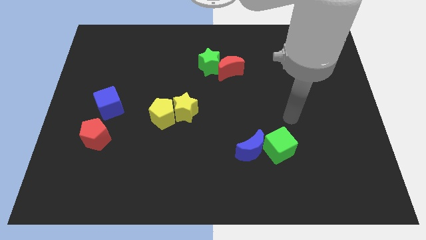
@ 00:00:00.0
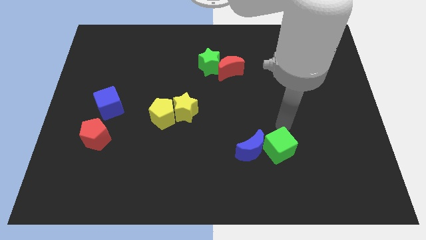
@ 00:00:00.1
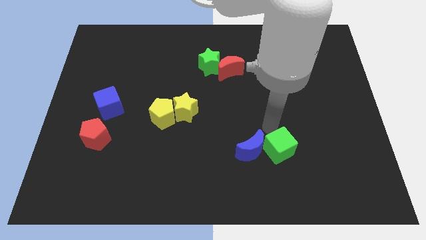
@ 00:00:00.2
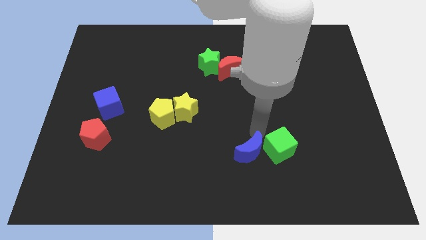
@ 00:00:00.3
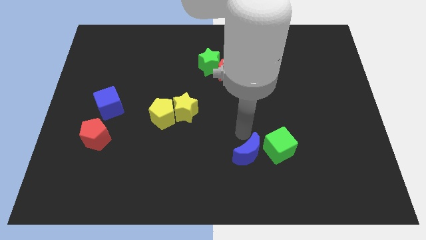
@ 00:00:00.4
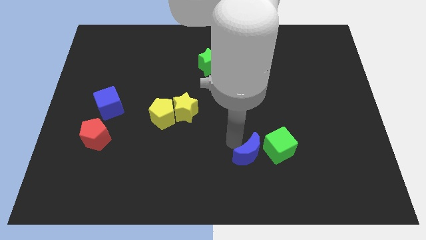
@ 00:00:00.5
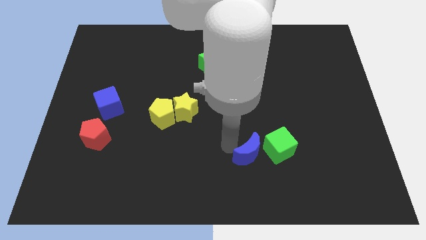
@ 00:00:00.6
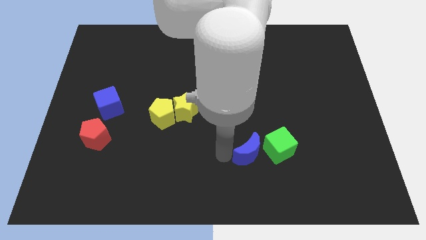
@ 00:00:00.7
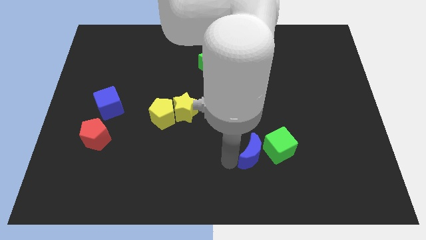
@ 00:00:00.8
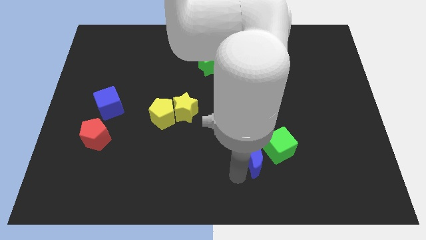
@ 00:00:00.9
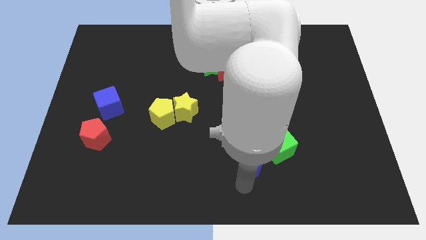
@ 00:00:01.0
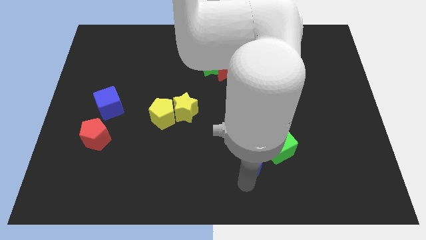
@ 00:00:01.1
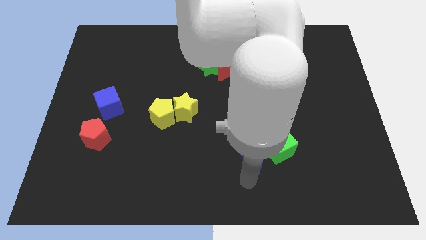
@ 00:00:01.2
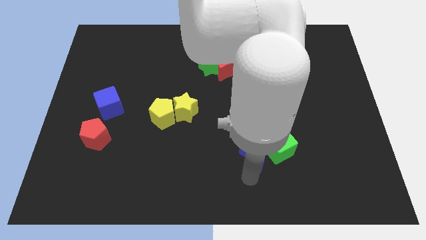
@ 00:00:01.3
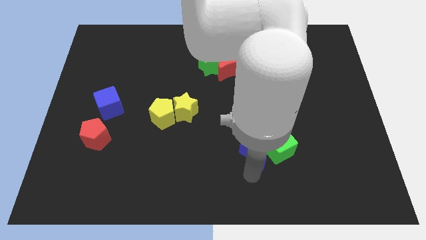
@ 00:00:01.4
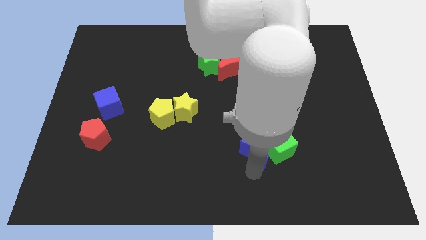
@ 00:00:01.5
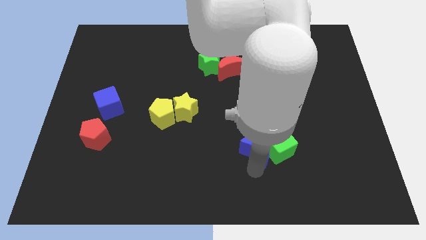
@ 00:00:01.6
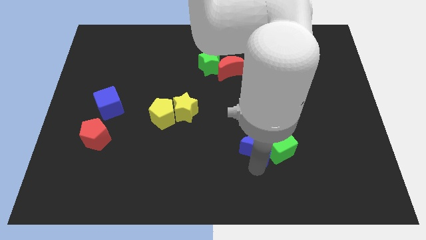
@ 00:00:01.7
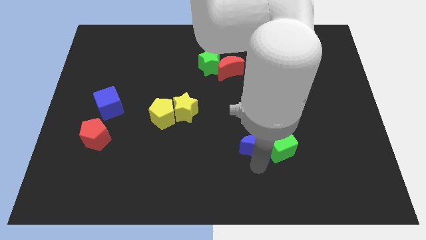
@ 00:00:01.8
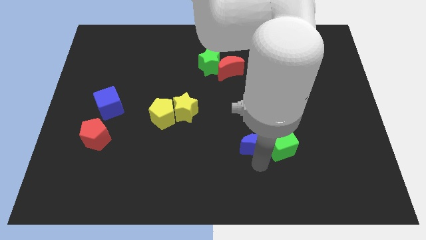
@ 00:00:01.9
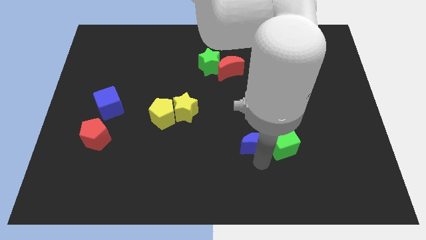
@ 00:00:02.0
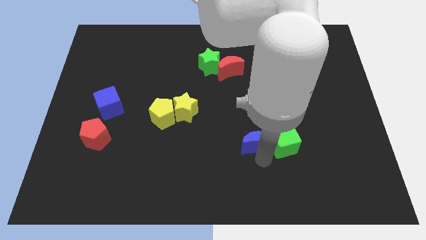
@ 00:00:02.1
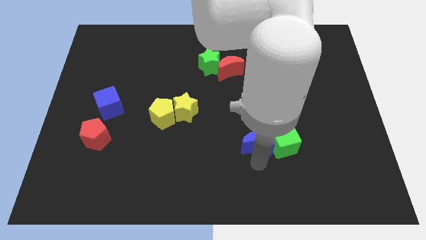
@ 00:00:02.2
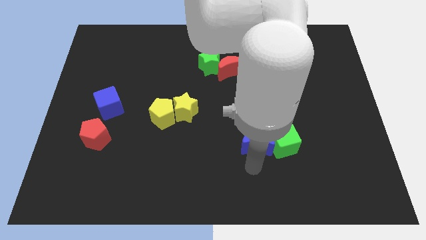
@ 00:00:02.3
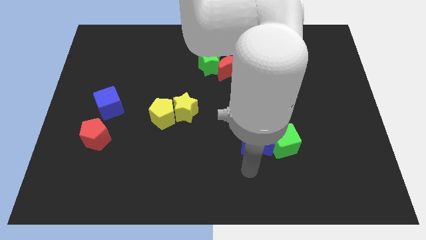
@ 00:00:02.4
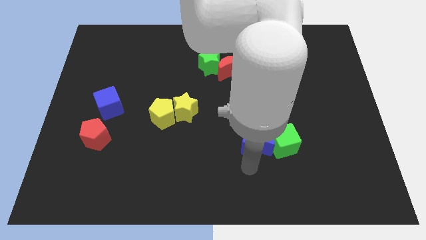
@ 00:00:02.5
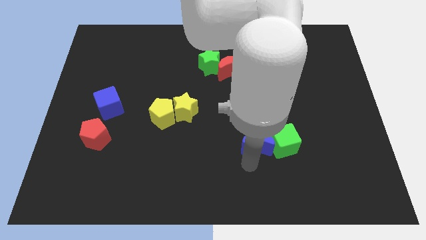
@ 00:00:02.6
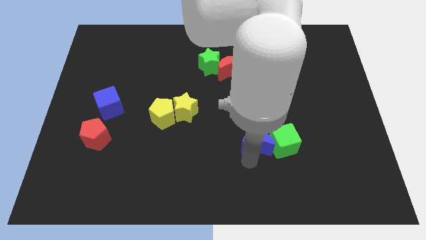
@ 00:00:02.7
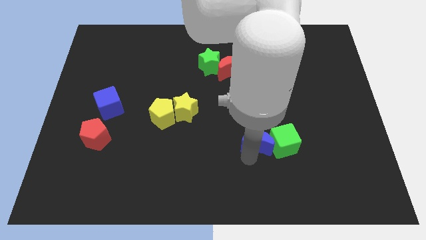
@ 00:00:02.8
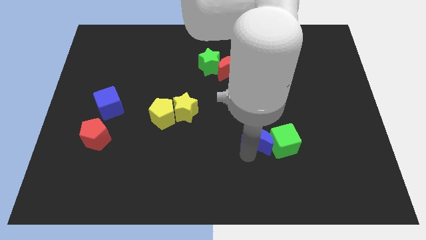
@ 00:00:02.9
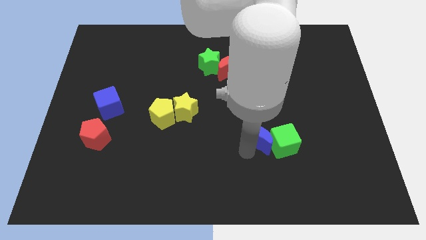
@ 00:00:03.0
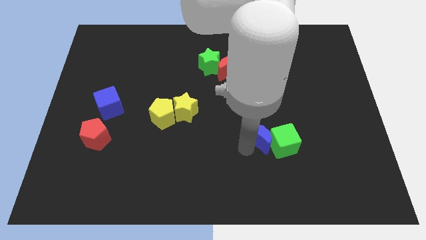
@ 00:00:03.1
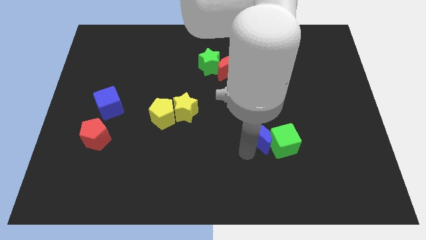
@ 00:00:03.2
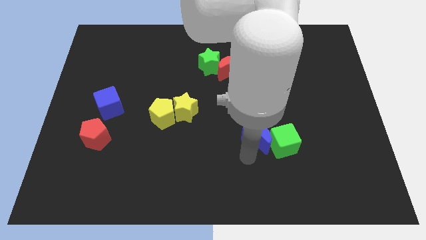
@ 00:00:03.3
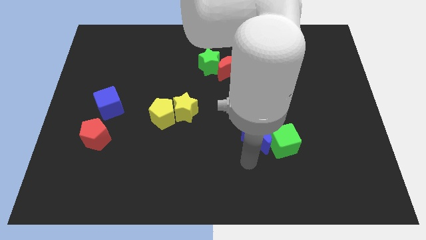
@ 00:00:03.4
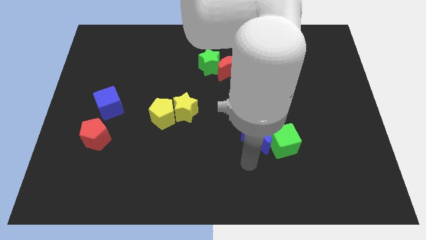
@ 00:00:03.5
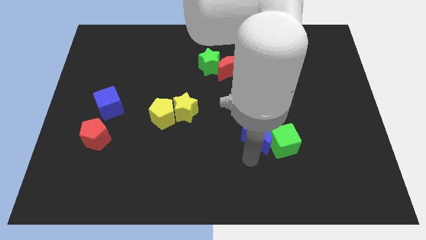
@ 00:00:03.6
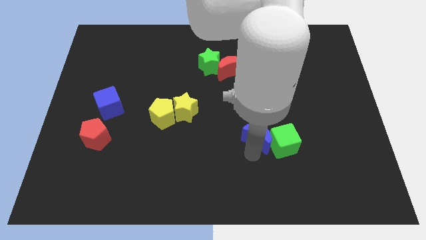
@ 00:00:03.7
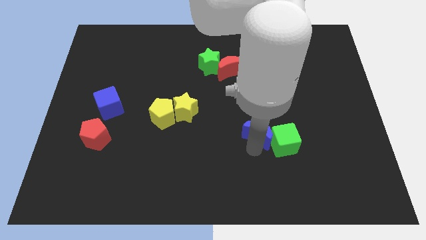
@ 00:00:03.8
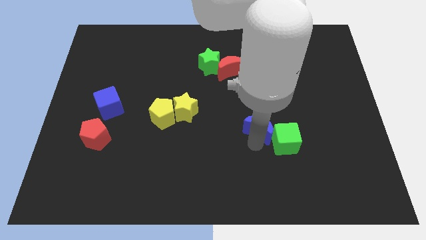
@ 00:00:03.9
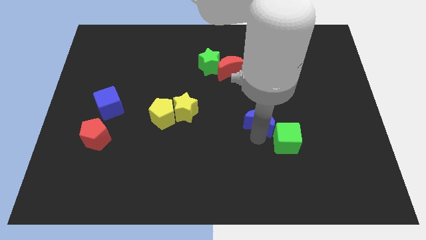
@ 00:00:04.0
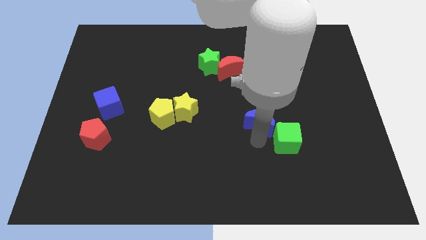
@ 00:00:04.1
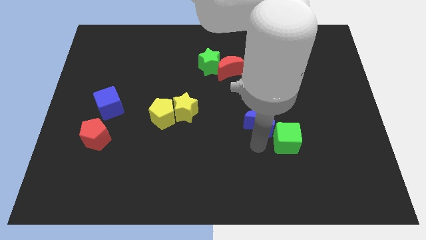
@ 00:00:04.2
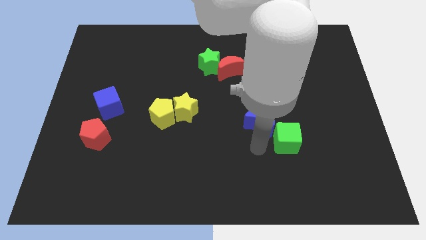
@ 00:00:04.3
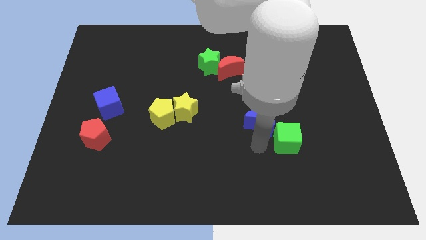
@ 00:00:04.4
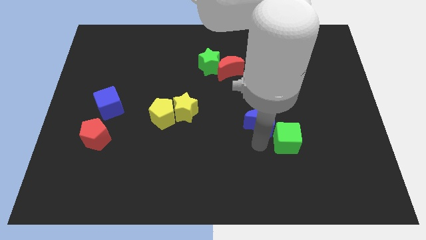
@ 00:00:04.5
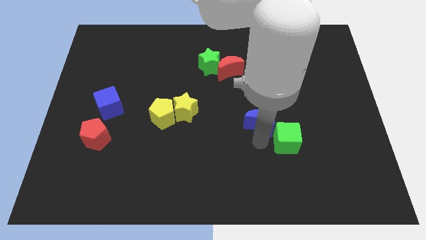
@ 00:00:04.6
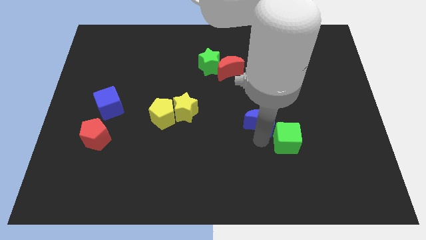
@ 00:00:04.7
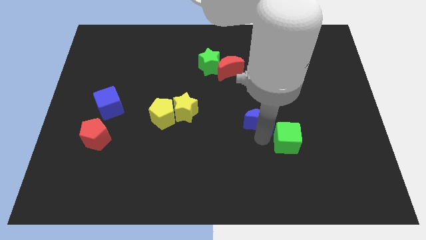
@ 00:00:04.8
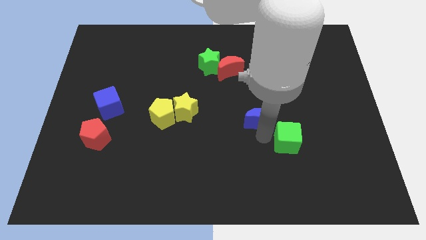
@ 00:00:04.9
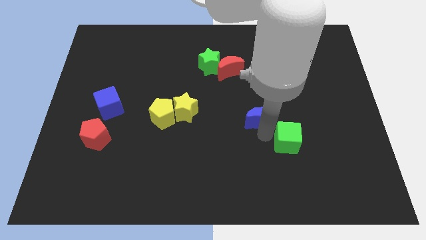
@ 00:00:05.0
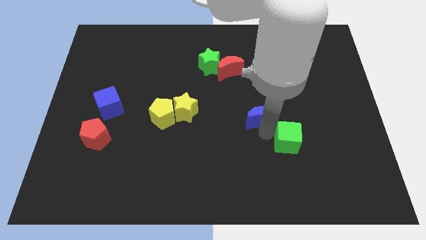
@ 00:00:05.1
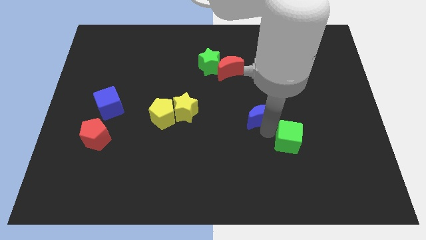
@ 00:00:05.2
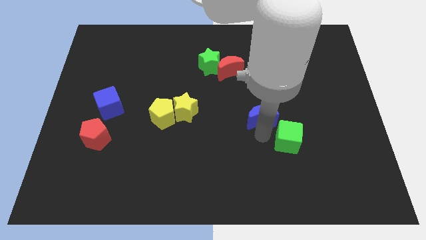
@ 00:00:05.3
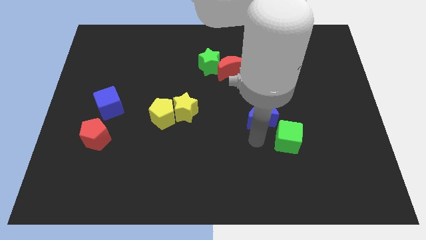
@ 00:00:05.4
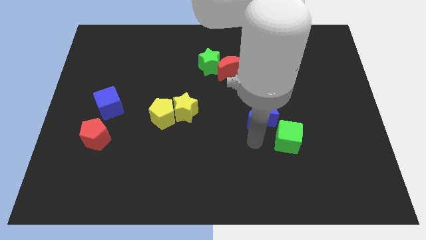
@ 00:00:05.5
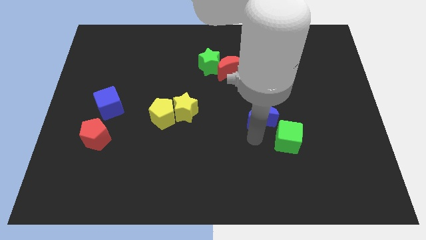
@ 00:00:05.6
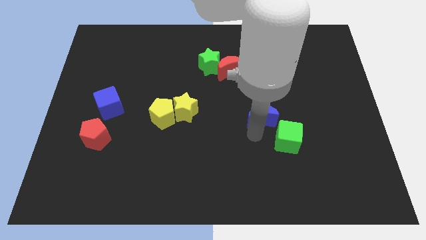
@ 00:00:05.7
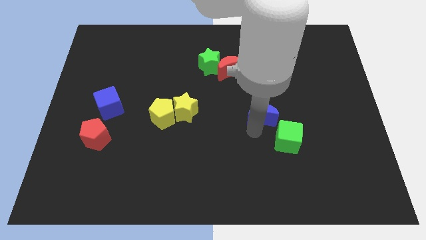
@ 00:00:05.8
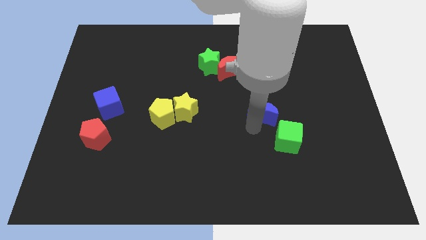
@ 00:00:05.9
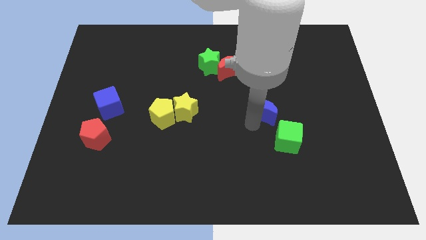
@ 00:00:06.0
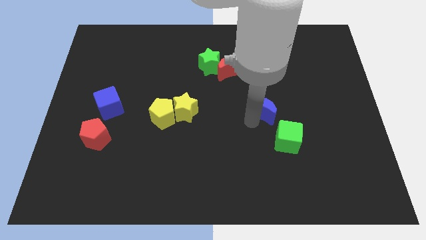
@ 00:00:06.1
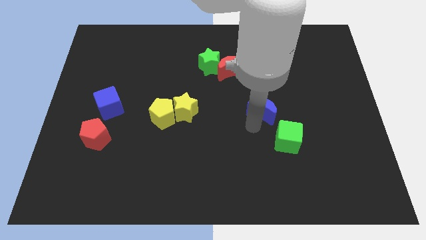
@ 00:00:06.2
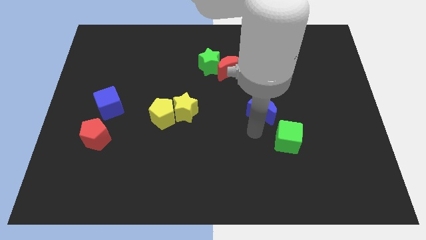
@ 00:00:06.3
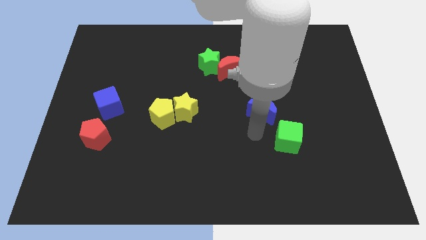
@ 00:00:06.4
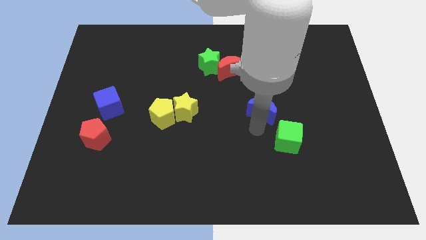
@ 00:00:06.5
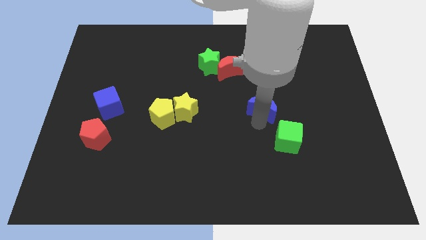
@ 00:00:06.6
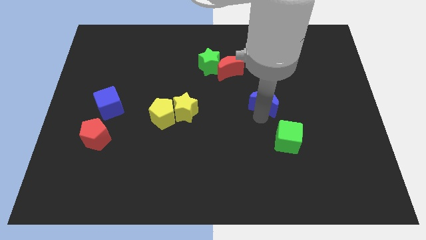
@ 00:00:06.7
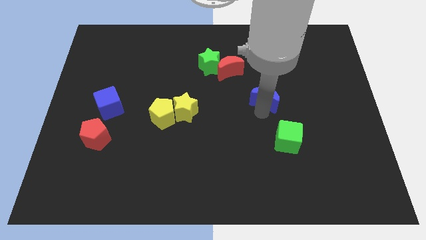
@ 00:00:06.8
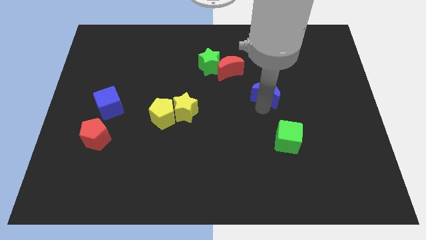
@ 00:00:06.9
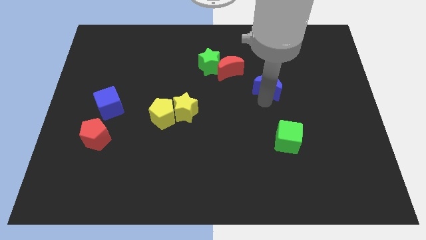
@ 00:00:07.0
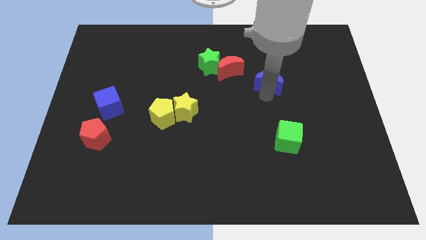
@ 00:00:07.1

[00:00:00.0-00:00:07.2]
slide the blue moon to the right side of the red moon

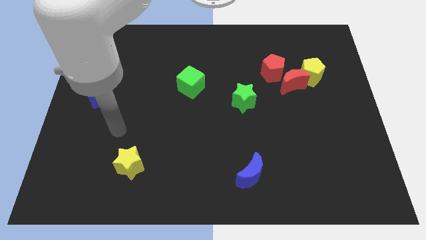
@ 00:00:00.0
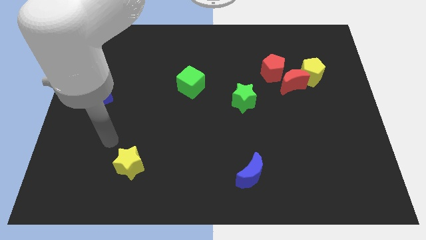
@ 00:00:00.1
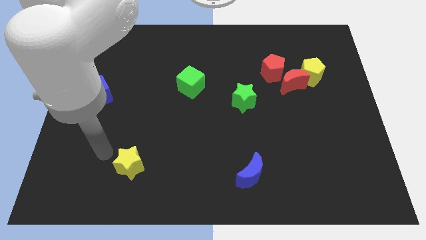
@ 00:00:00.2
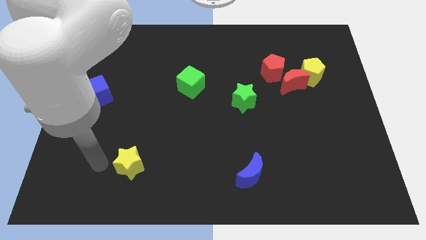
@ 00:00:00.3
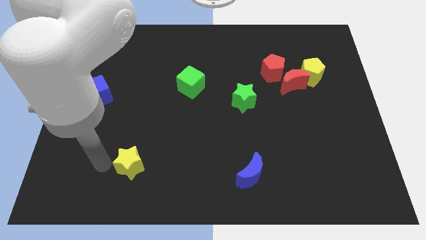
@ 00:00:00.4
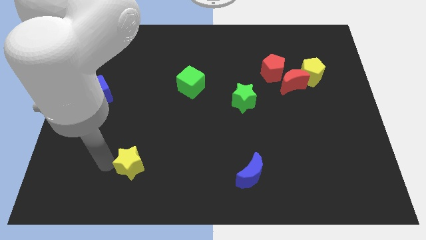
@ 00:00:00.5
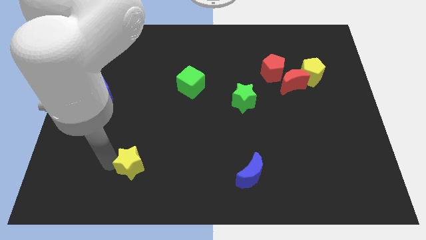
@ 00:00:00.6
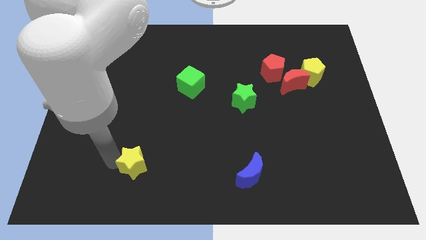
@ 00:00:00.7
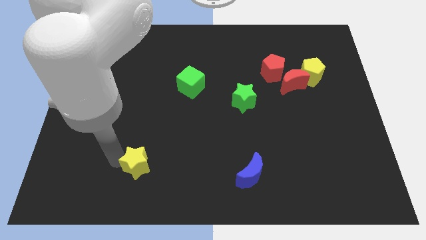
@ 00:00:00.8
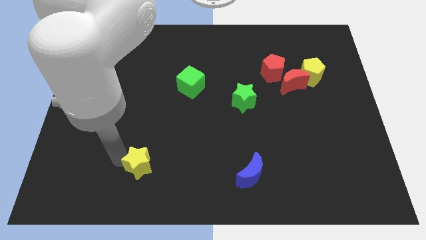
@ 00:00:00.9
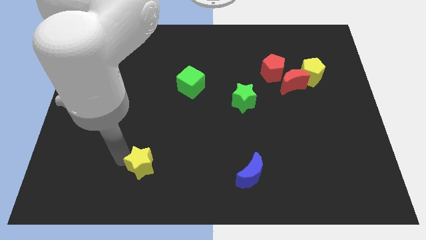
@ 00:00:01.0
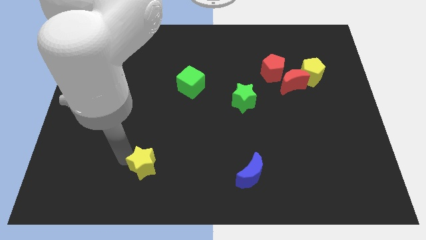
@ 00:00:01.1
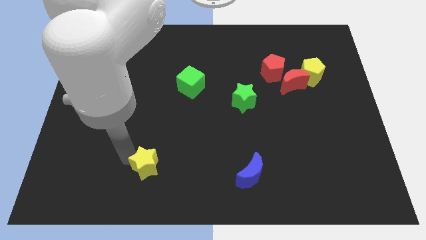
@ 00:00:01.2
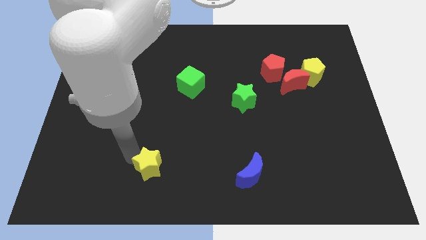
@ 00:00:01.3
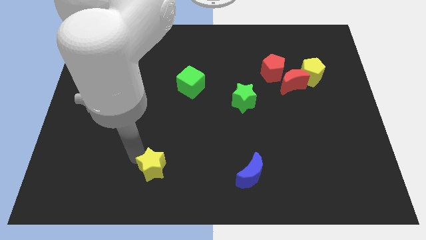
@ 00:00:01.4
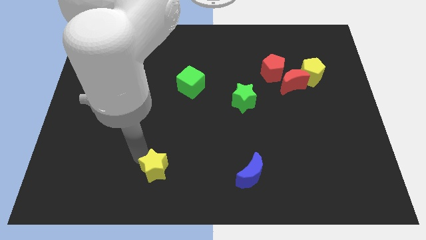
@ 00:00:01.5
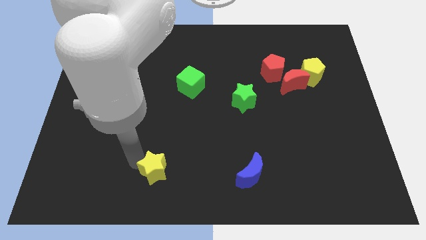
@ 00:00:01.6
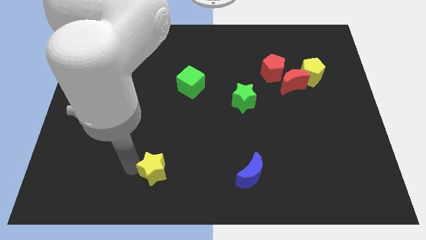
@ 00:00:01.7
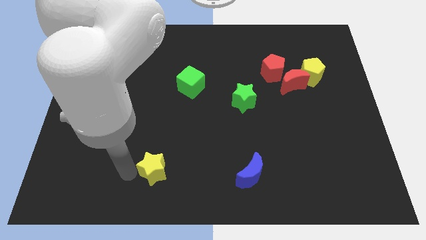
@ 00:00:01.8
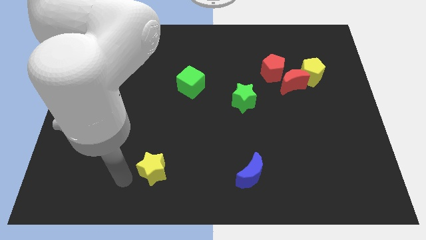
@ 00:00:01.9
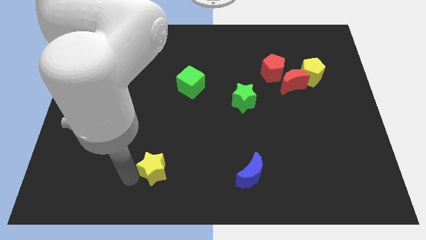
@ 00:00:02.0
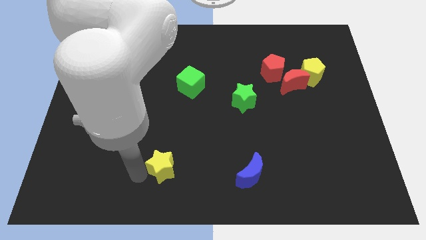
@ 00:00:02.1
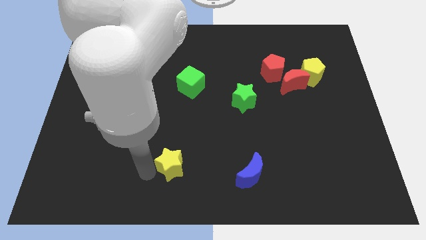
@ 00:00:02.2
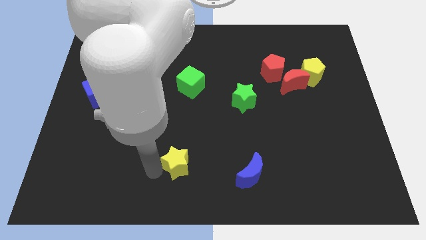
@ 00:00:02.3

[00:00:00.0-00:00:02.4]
push the yellow star left of the blue moon
